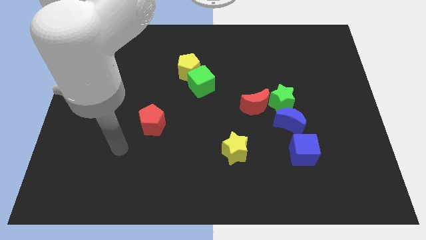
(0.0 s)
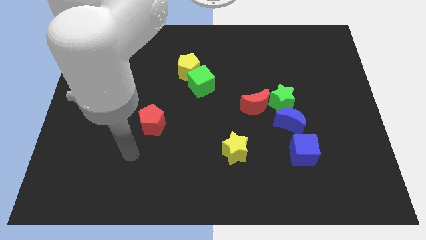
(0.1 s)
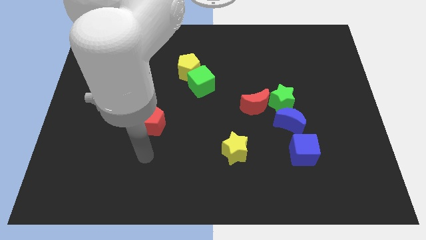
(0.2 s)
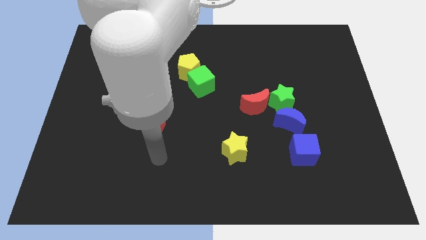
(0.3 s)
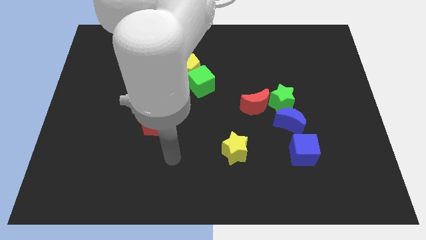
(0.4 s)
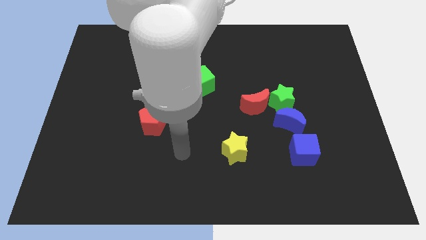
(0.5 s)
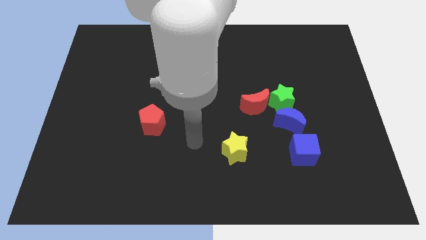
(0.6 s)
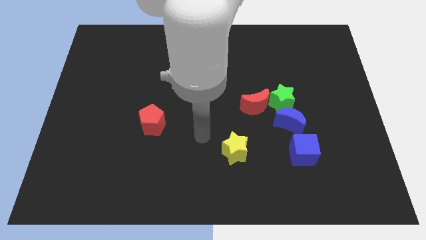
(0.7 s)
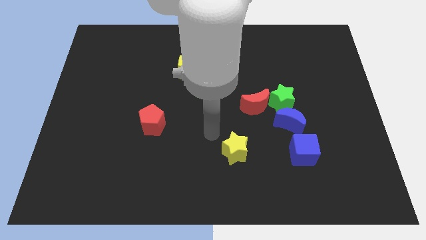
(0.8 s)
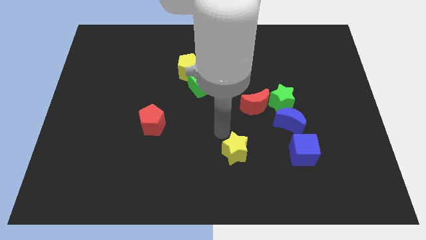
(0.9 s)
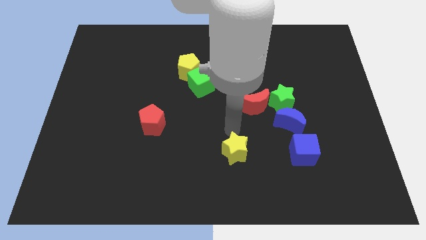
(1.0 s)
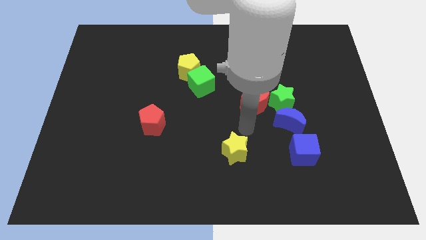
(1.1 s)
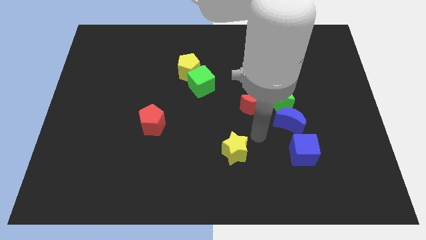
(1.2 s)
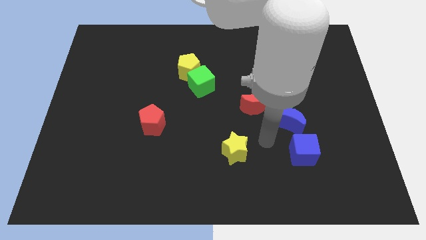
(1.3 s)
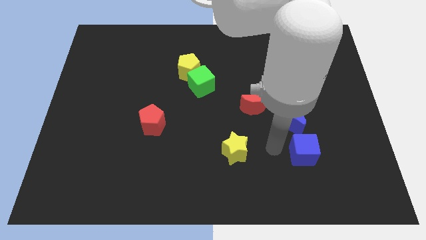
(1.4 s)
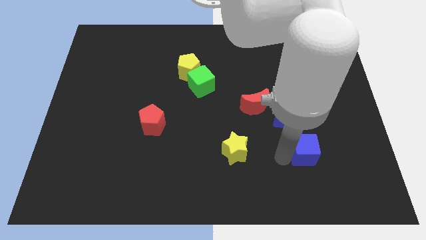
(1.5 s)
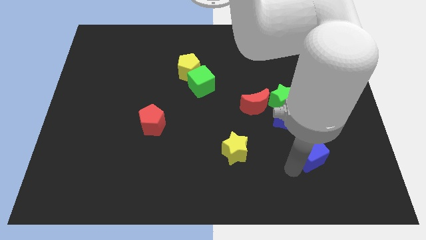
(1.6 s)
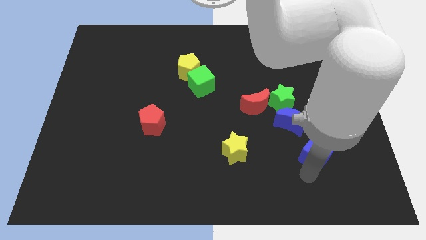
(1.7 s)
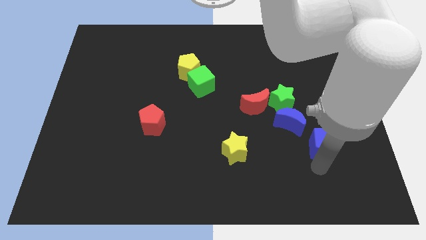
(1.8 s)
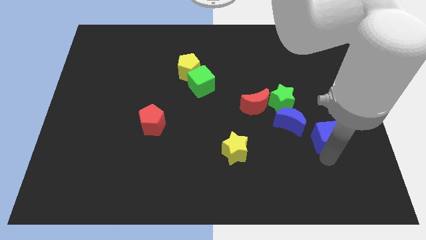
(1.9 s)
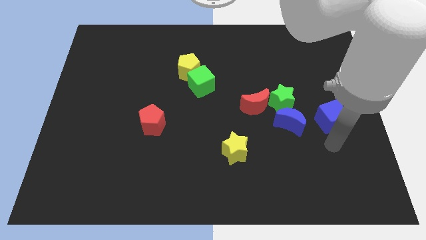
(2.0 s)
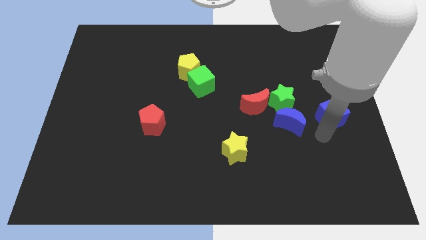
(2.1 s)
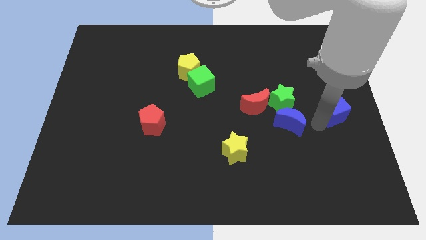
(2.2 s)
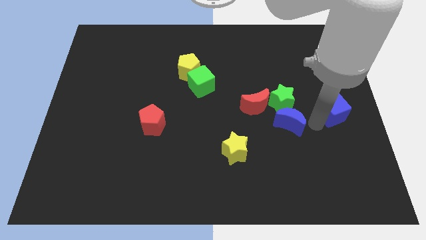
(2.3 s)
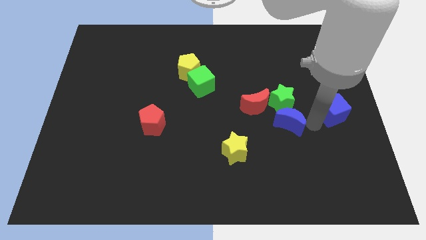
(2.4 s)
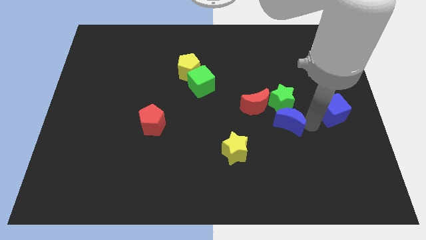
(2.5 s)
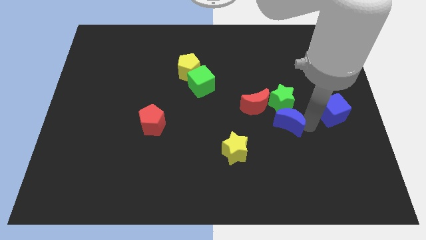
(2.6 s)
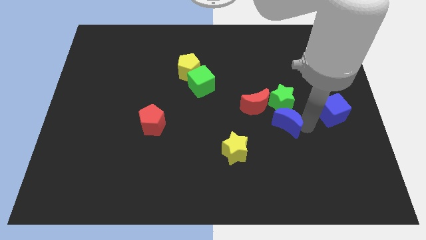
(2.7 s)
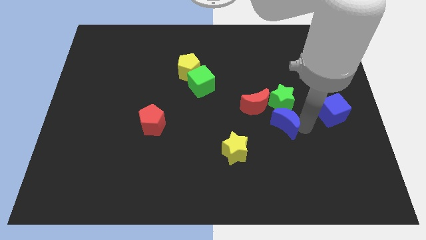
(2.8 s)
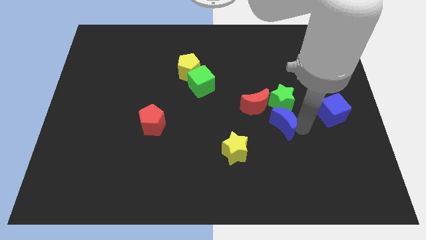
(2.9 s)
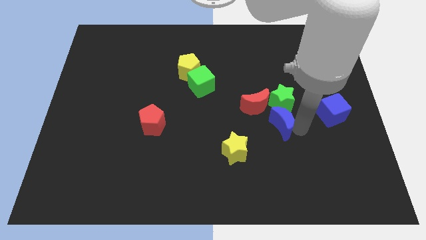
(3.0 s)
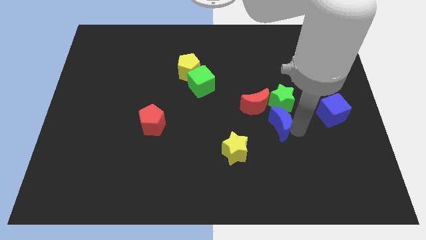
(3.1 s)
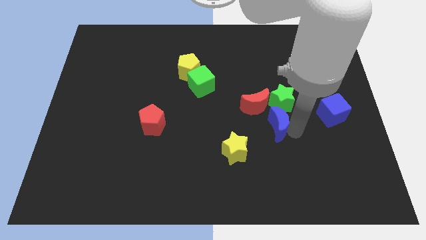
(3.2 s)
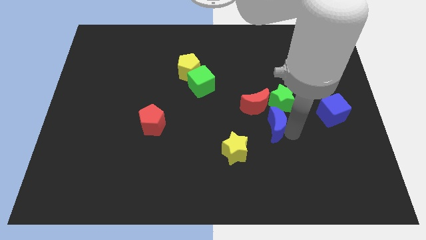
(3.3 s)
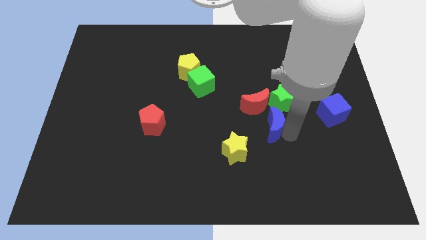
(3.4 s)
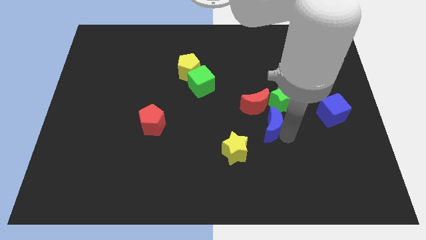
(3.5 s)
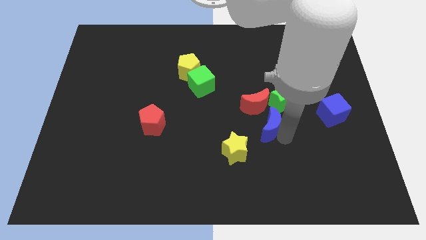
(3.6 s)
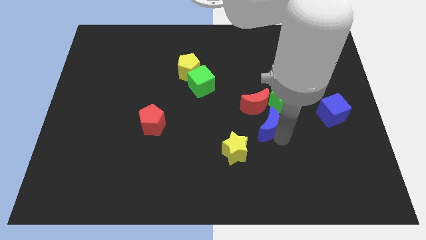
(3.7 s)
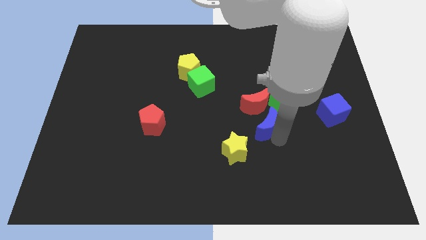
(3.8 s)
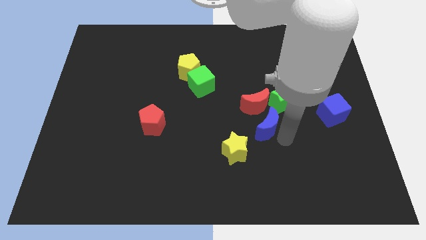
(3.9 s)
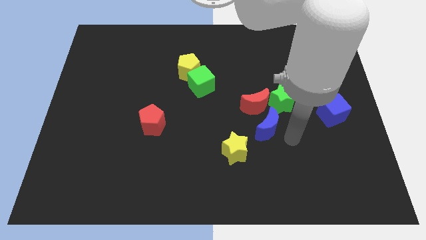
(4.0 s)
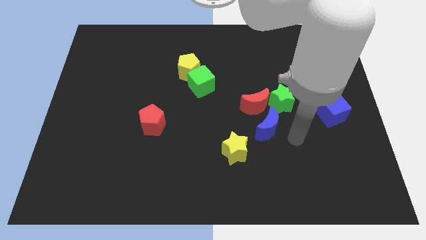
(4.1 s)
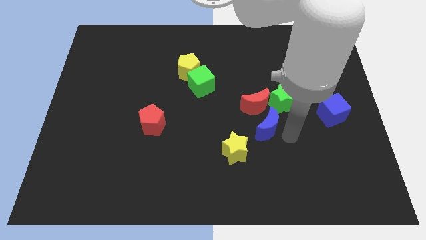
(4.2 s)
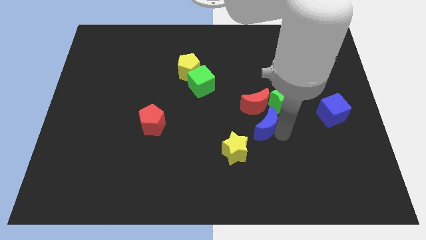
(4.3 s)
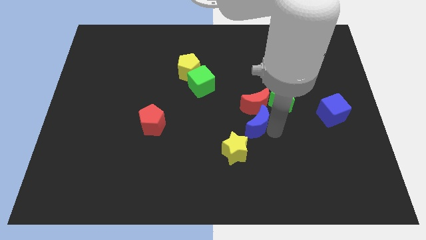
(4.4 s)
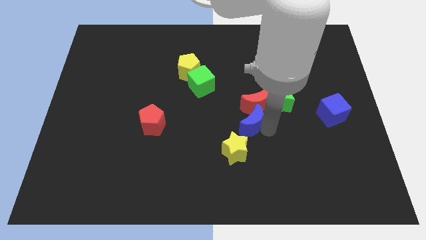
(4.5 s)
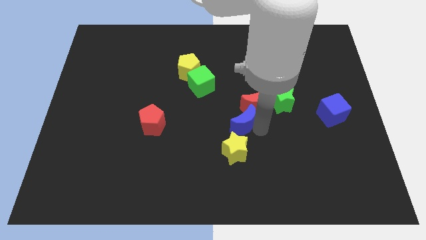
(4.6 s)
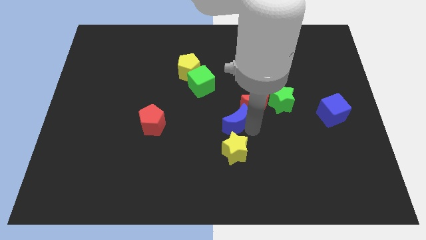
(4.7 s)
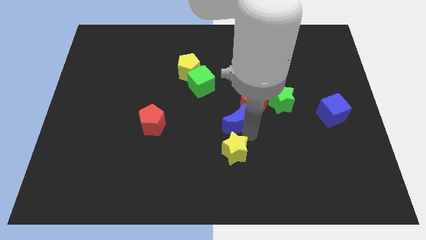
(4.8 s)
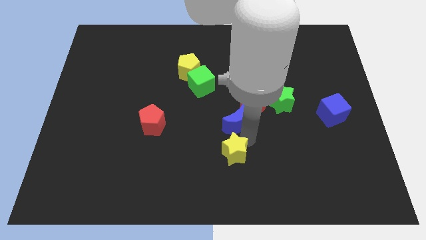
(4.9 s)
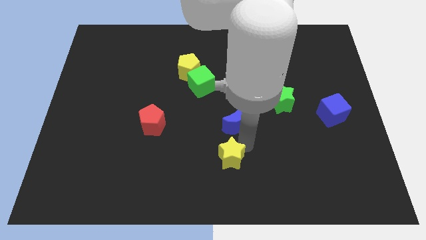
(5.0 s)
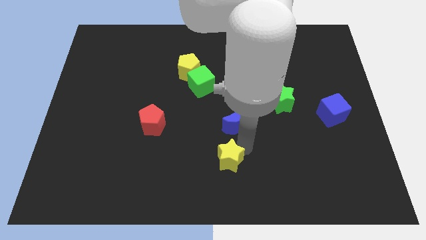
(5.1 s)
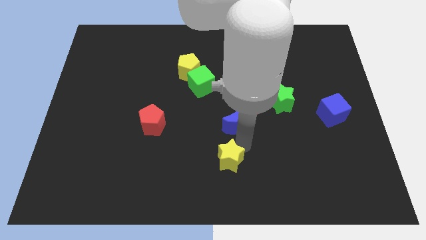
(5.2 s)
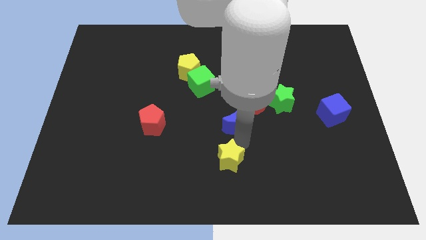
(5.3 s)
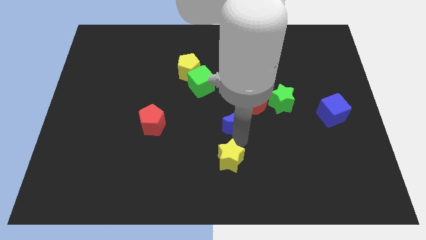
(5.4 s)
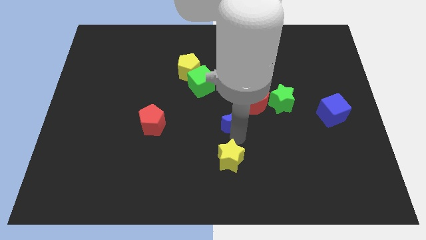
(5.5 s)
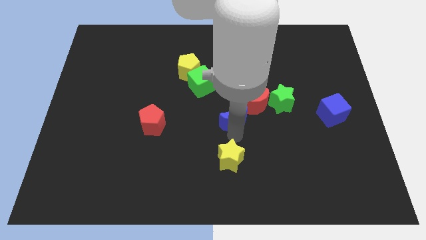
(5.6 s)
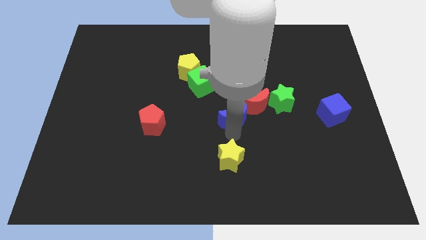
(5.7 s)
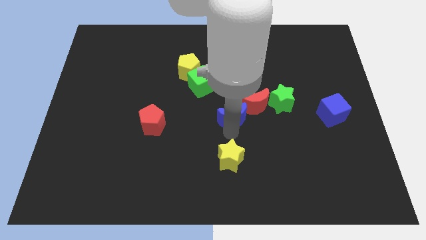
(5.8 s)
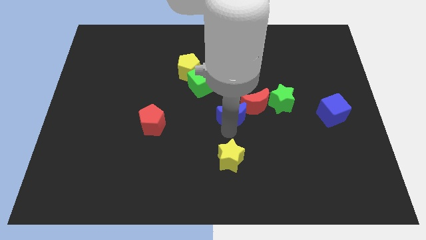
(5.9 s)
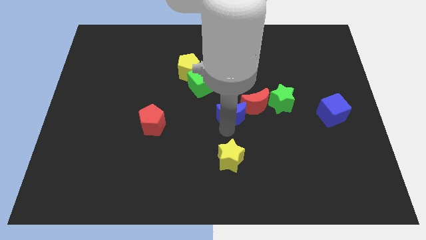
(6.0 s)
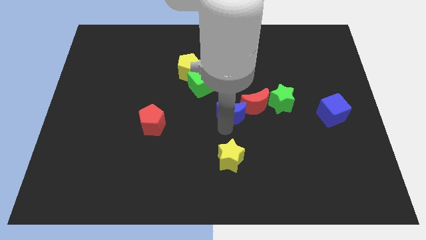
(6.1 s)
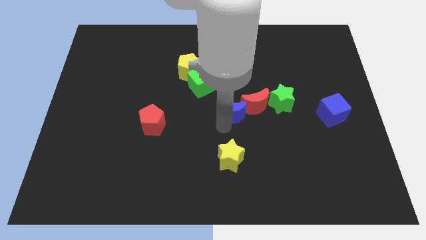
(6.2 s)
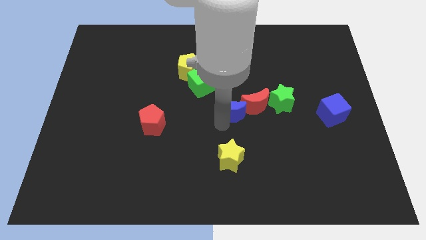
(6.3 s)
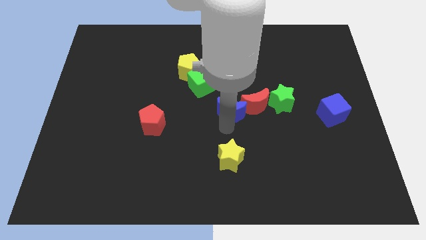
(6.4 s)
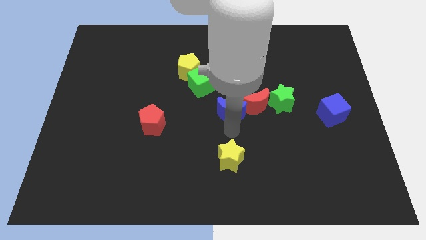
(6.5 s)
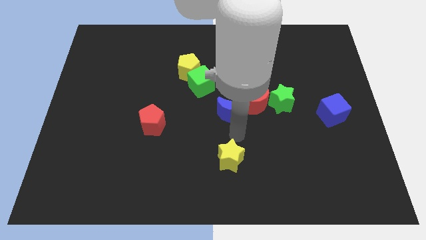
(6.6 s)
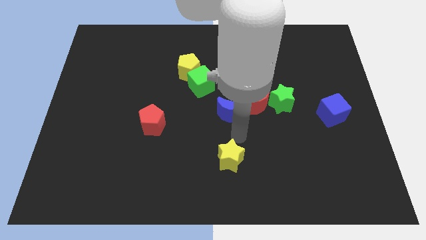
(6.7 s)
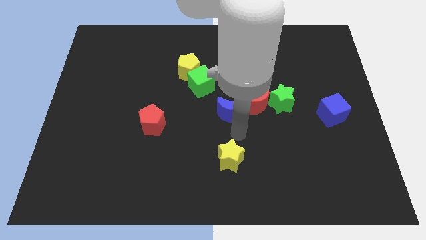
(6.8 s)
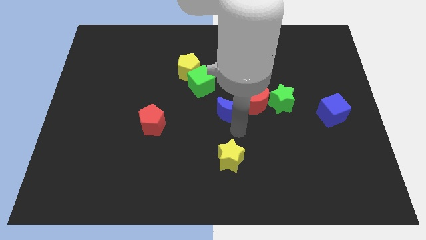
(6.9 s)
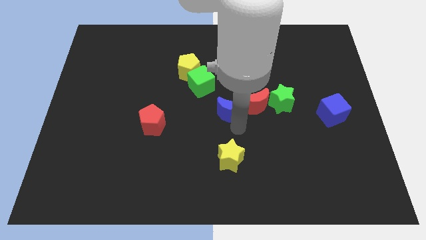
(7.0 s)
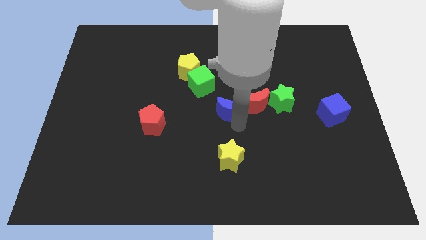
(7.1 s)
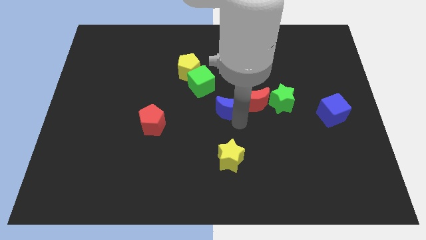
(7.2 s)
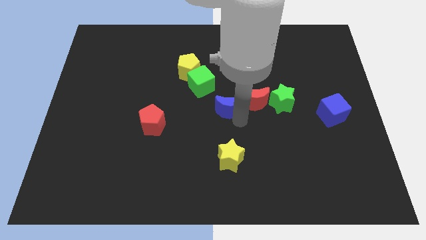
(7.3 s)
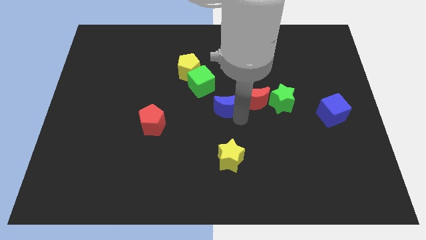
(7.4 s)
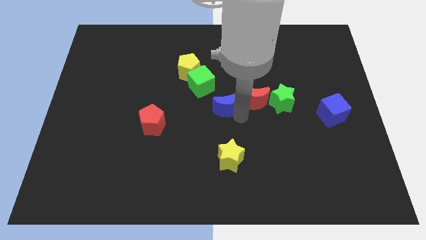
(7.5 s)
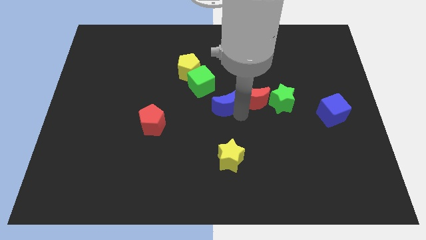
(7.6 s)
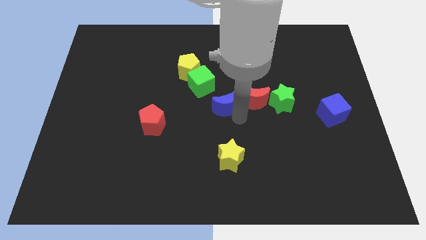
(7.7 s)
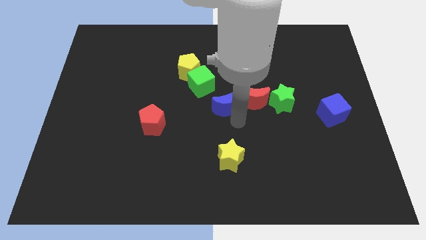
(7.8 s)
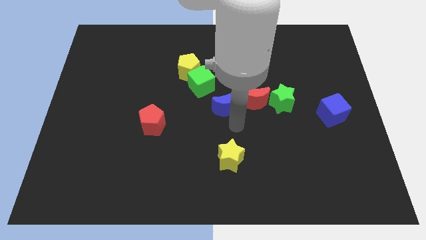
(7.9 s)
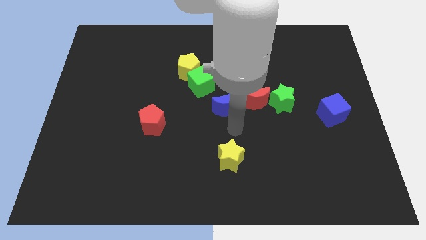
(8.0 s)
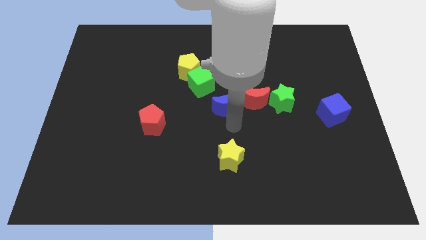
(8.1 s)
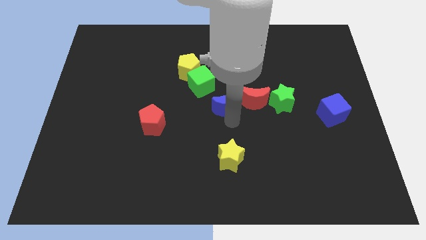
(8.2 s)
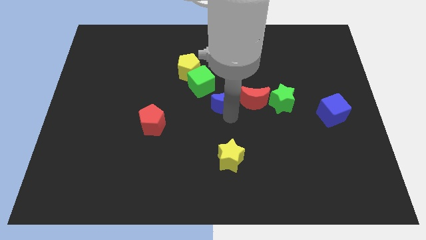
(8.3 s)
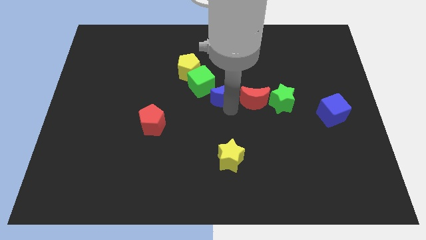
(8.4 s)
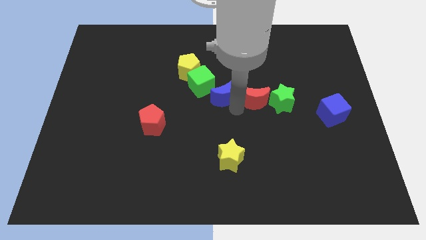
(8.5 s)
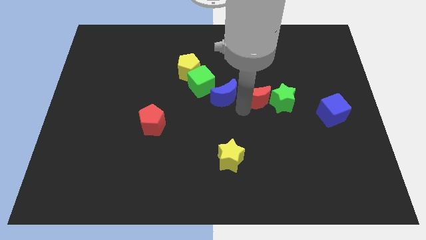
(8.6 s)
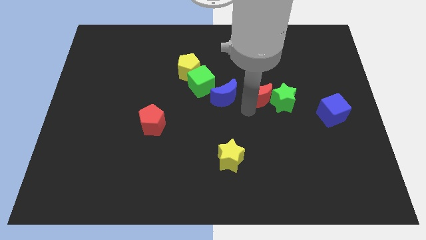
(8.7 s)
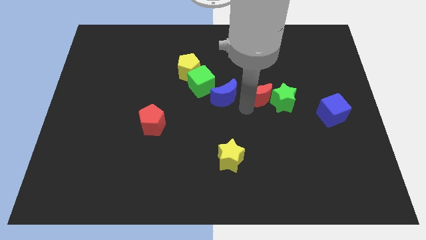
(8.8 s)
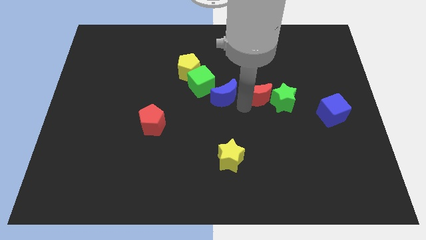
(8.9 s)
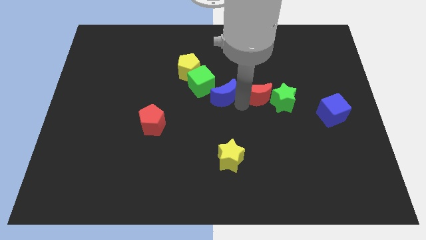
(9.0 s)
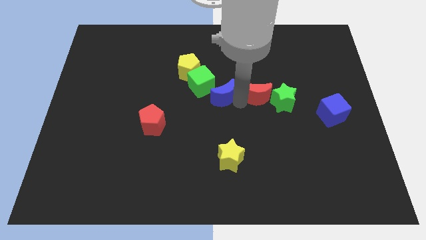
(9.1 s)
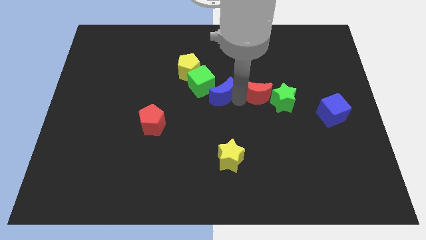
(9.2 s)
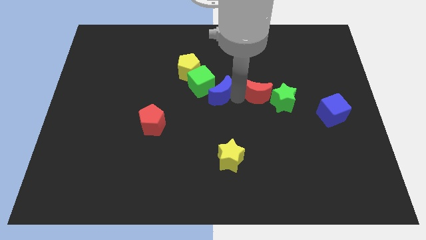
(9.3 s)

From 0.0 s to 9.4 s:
put the blue moon close to the green cube
